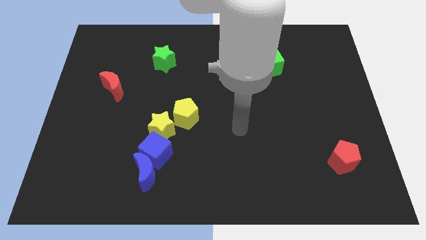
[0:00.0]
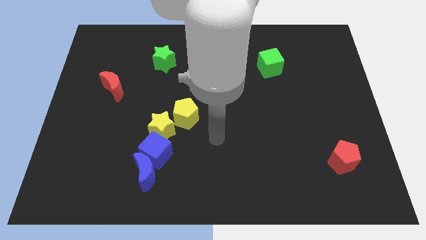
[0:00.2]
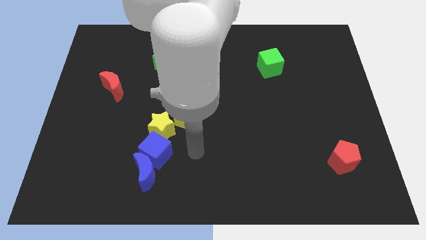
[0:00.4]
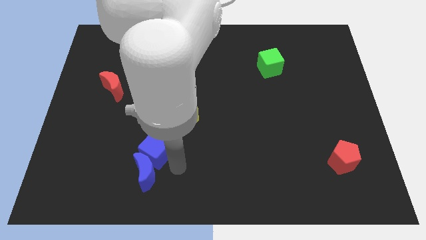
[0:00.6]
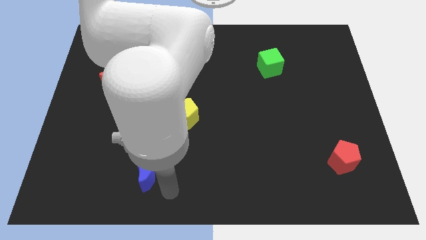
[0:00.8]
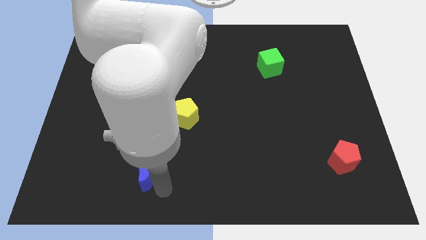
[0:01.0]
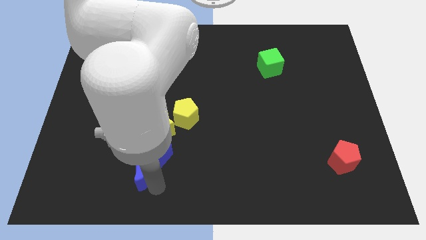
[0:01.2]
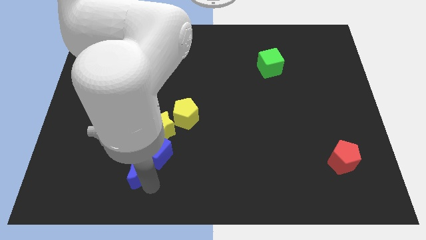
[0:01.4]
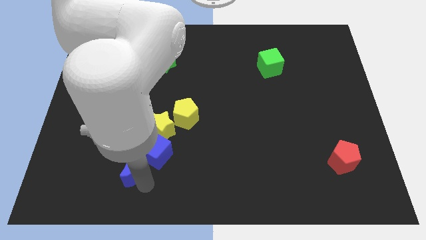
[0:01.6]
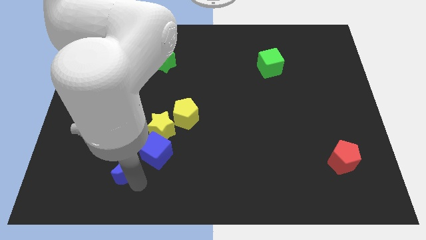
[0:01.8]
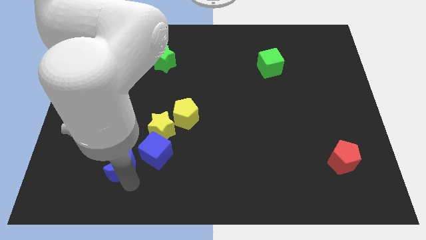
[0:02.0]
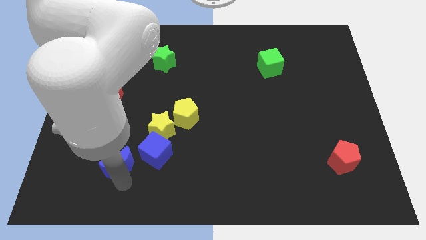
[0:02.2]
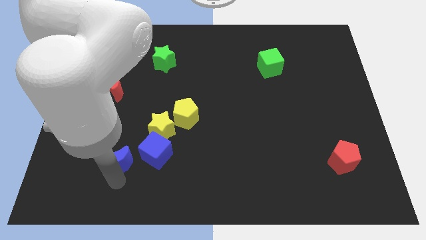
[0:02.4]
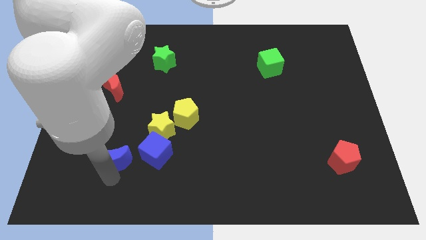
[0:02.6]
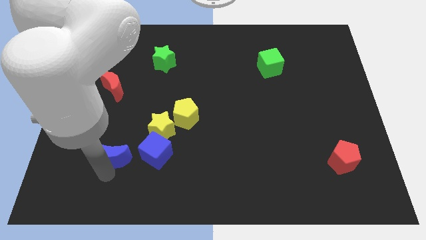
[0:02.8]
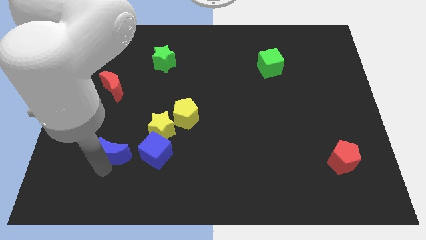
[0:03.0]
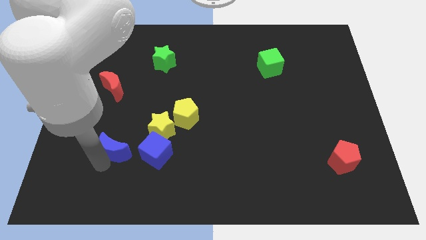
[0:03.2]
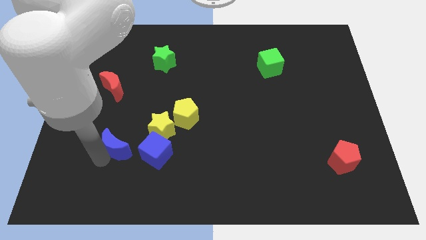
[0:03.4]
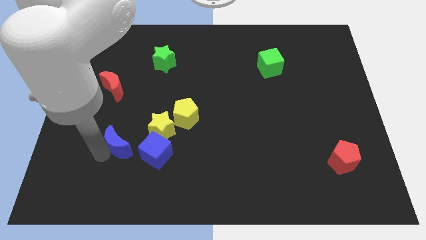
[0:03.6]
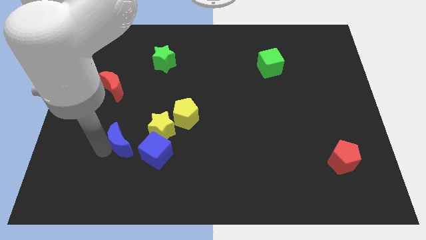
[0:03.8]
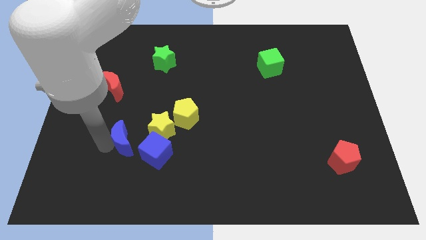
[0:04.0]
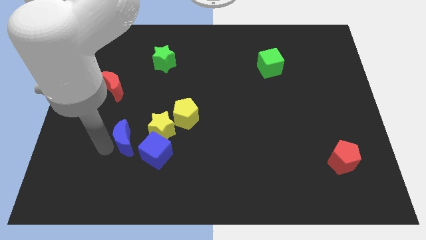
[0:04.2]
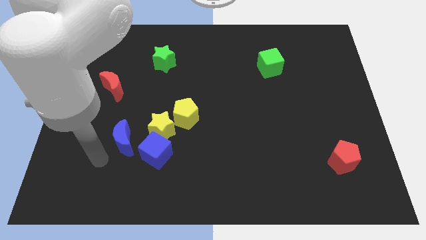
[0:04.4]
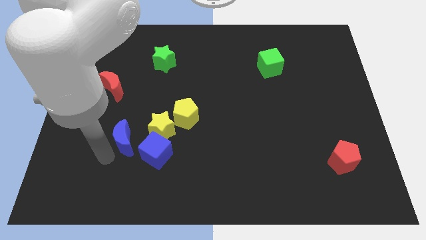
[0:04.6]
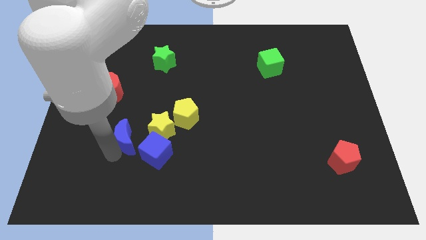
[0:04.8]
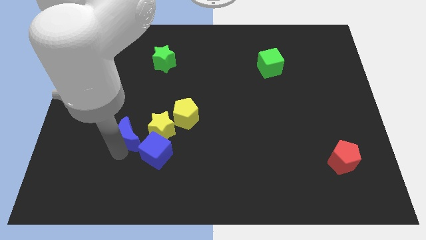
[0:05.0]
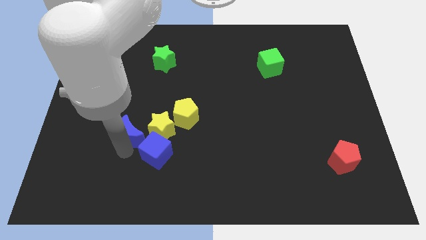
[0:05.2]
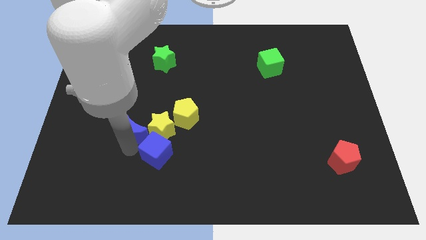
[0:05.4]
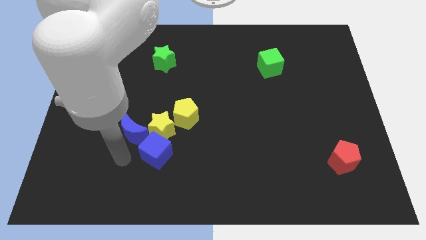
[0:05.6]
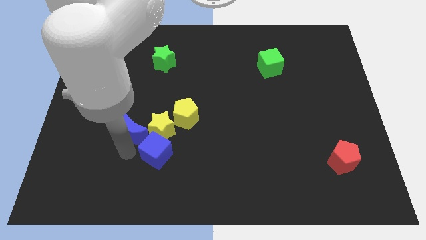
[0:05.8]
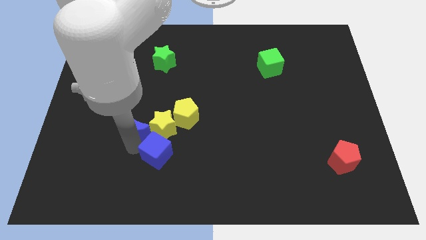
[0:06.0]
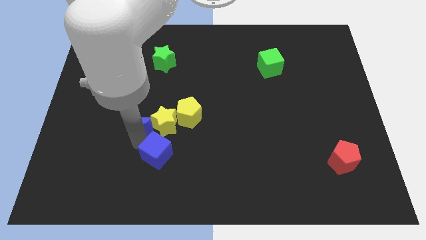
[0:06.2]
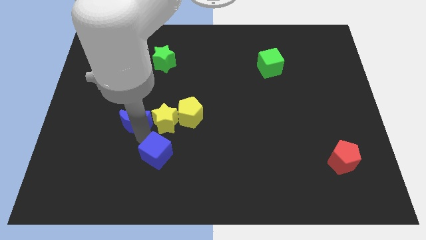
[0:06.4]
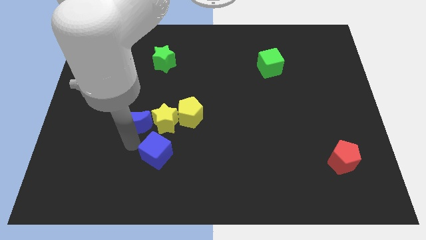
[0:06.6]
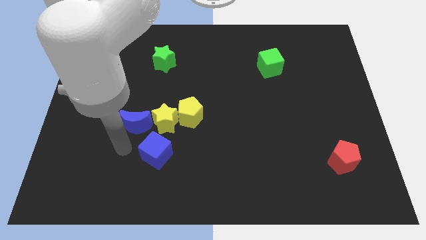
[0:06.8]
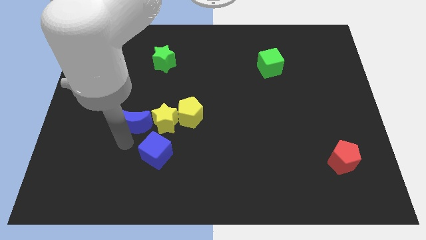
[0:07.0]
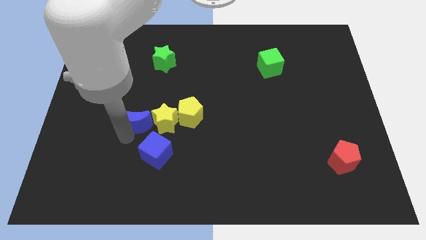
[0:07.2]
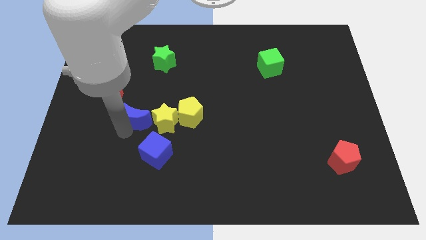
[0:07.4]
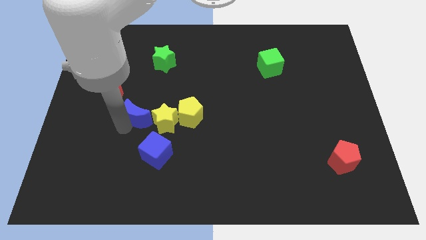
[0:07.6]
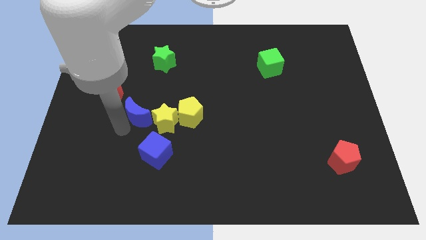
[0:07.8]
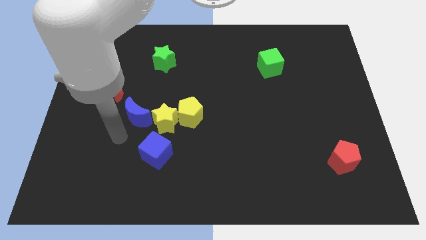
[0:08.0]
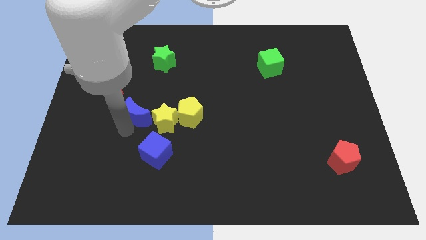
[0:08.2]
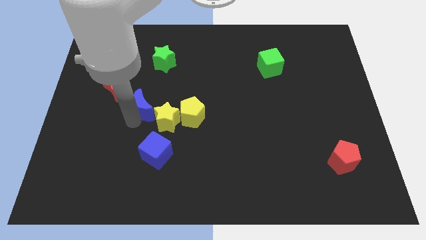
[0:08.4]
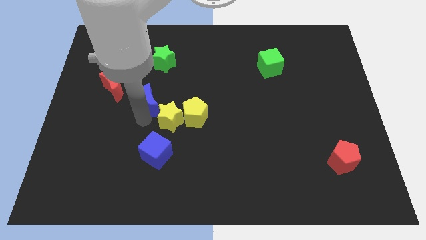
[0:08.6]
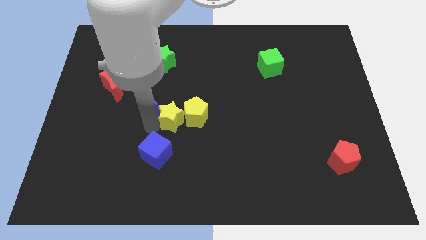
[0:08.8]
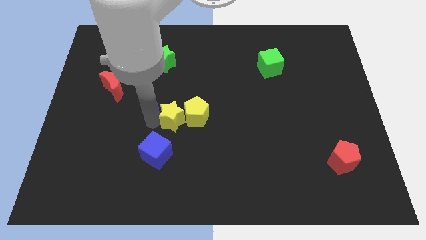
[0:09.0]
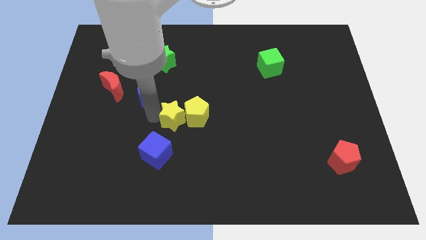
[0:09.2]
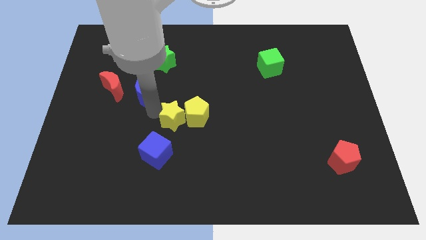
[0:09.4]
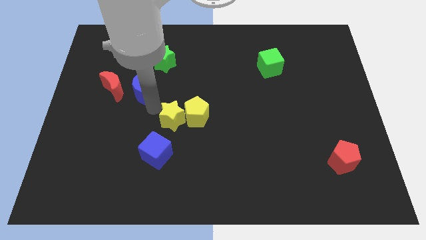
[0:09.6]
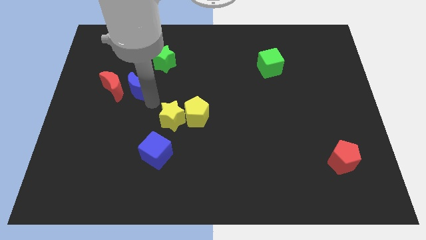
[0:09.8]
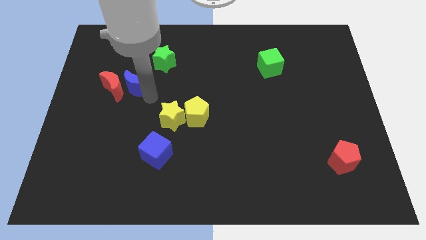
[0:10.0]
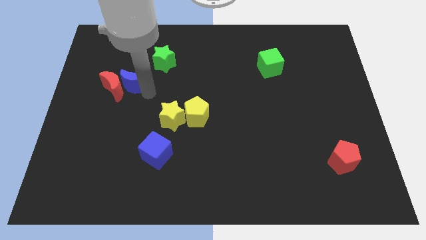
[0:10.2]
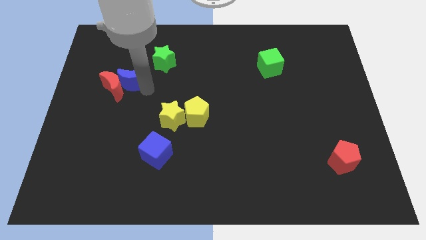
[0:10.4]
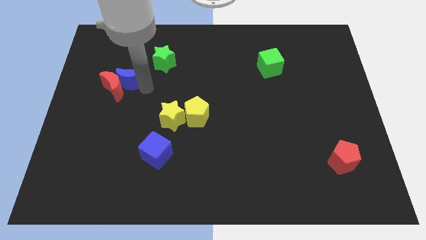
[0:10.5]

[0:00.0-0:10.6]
slide the blue moon above the red moon

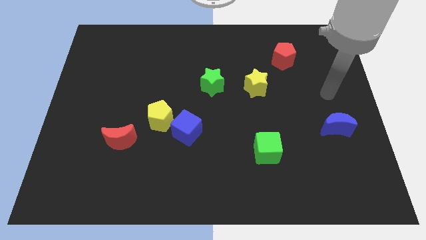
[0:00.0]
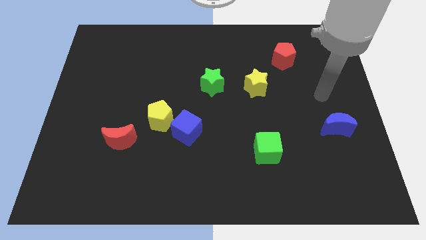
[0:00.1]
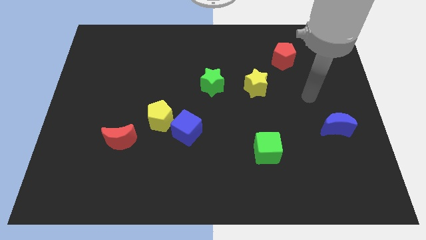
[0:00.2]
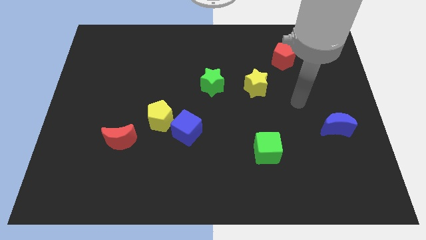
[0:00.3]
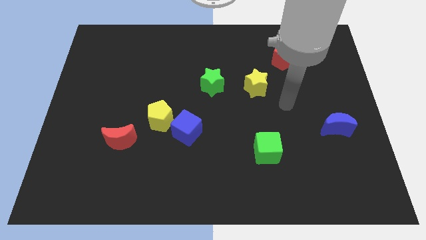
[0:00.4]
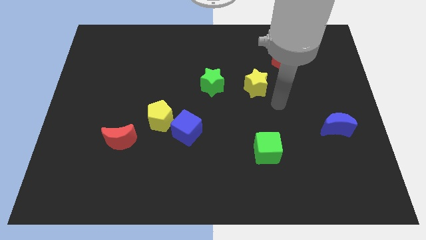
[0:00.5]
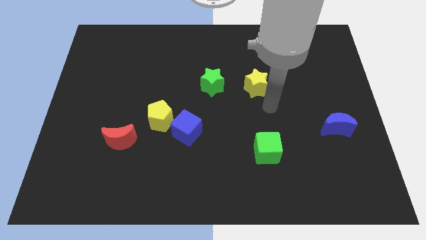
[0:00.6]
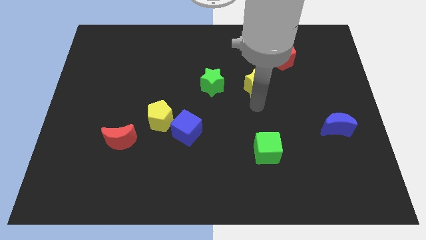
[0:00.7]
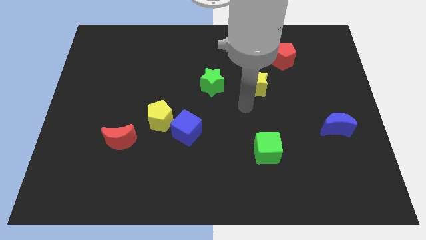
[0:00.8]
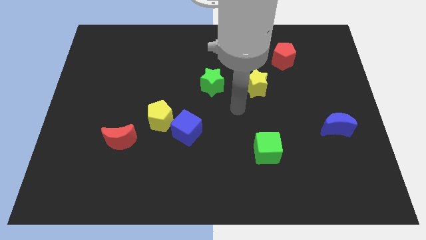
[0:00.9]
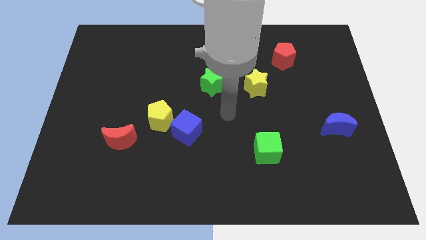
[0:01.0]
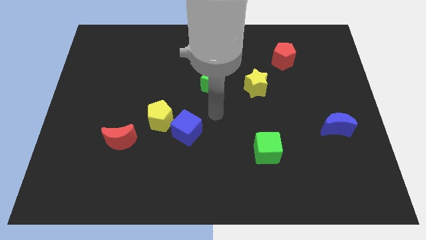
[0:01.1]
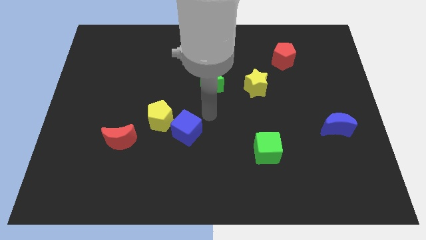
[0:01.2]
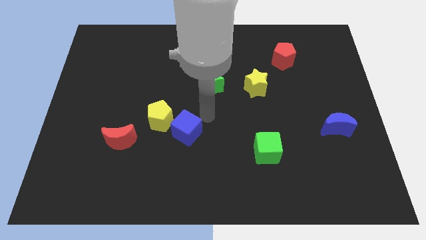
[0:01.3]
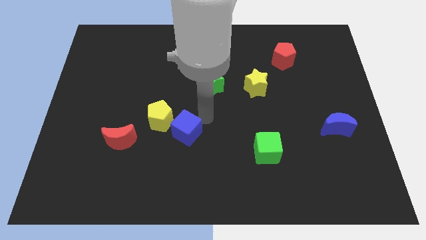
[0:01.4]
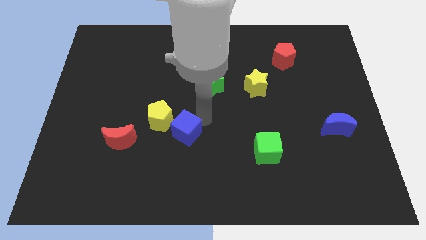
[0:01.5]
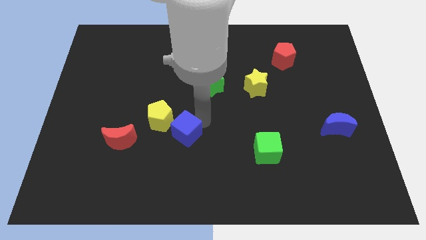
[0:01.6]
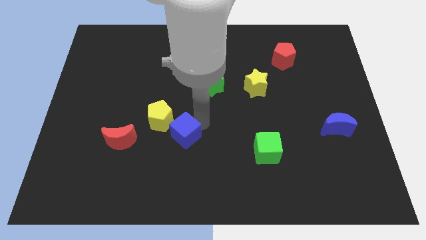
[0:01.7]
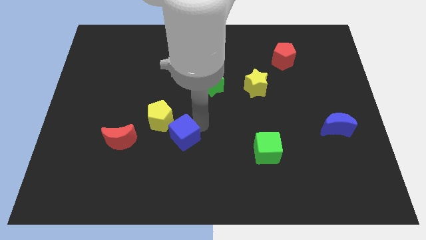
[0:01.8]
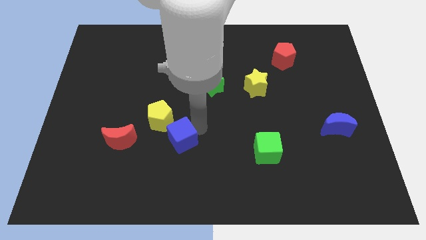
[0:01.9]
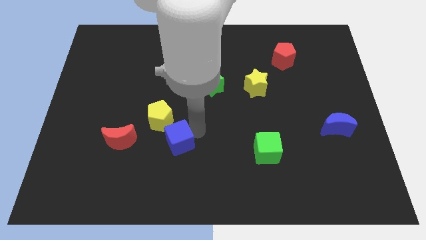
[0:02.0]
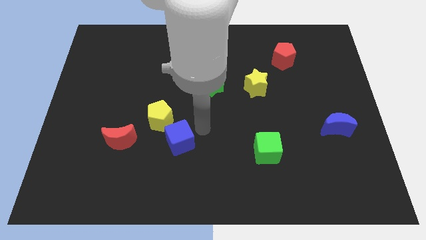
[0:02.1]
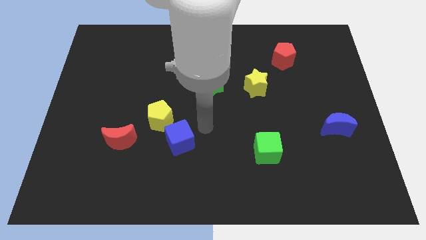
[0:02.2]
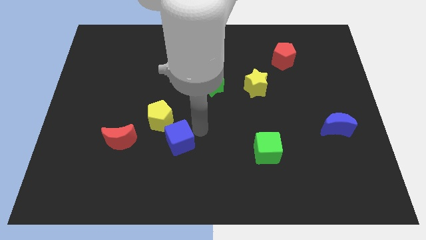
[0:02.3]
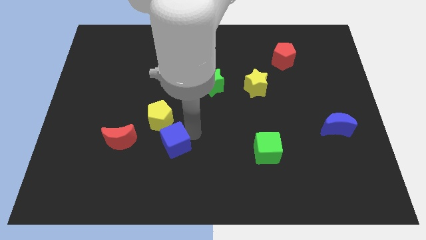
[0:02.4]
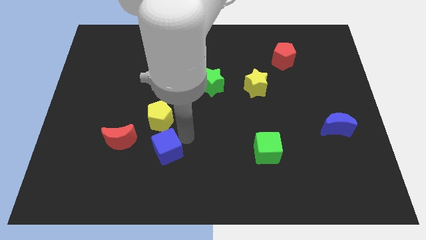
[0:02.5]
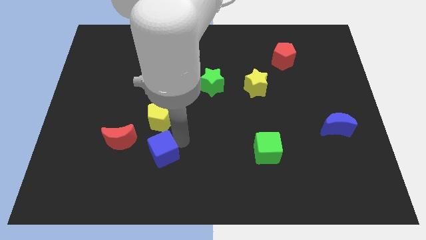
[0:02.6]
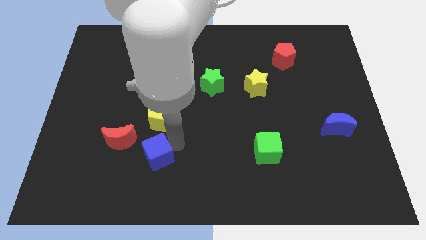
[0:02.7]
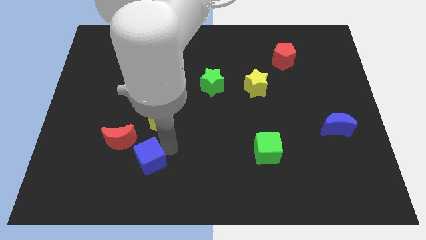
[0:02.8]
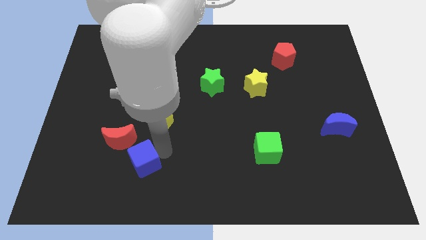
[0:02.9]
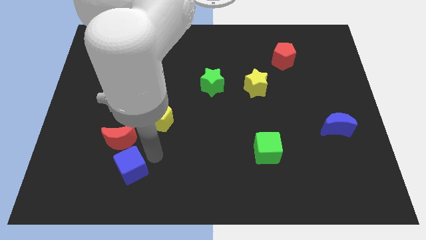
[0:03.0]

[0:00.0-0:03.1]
slide the blue cube below the red moon
